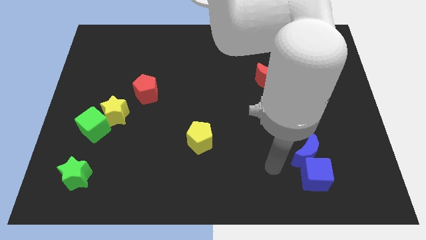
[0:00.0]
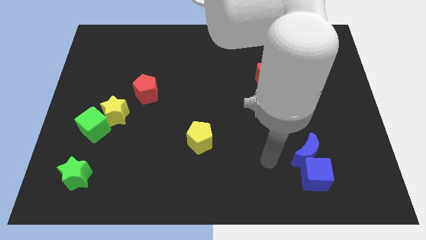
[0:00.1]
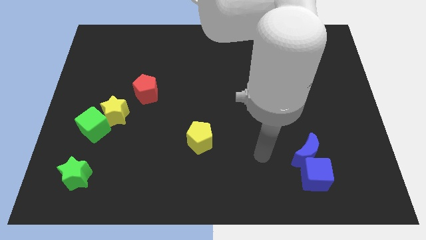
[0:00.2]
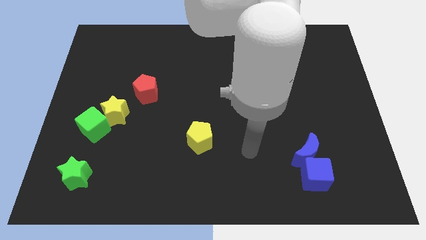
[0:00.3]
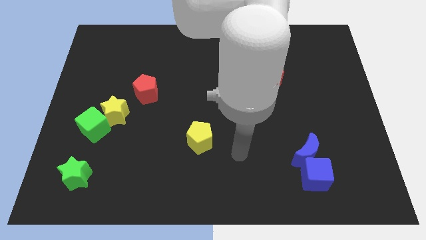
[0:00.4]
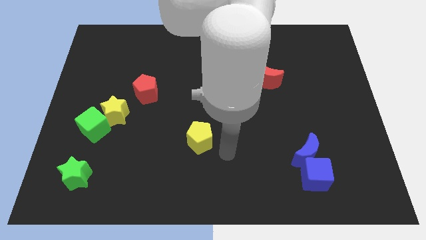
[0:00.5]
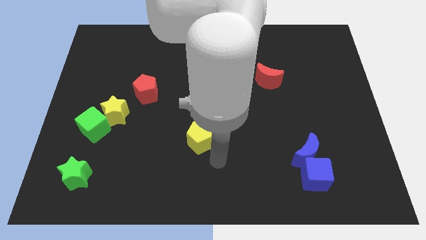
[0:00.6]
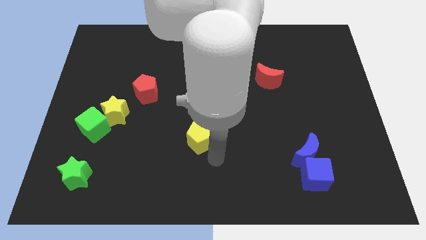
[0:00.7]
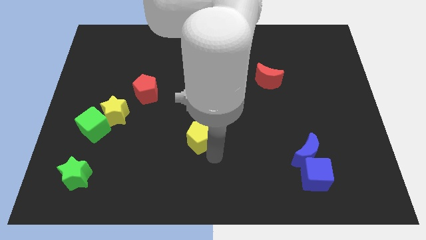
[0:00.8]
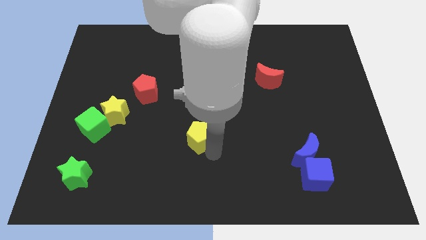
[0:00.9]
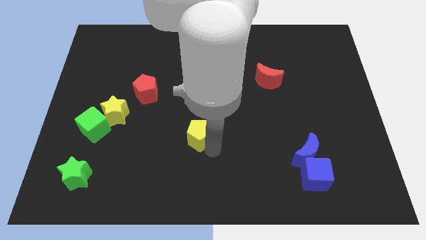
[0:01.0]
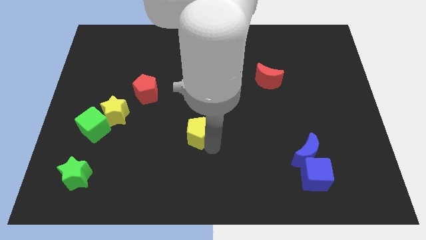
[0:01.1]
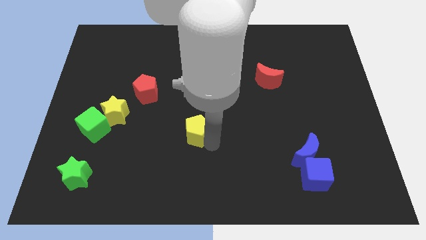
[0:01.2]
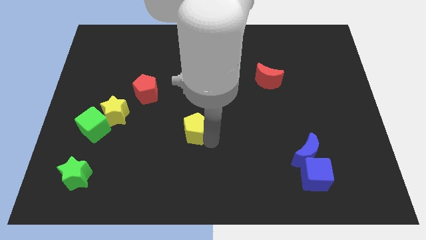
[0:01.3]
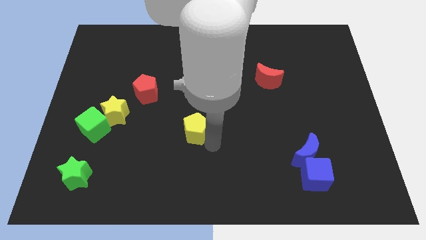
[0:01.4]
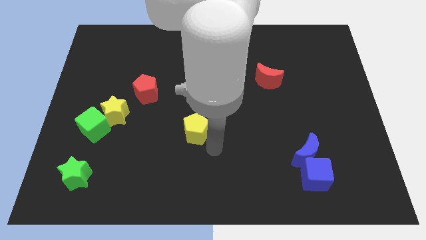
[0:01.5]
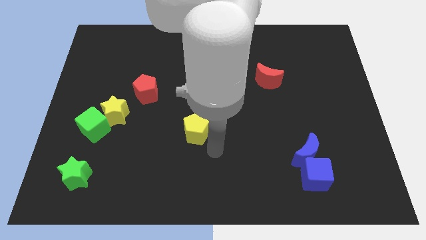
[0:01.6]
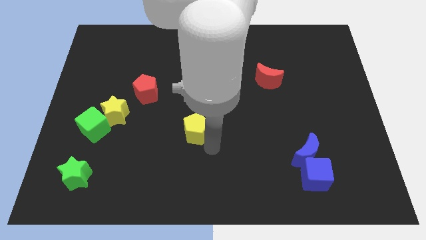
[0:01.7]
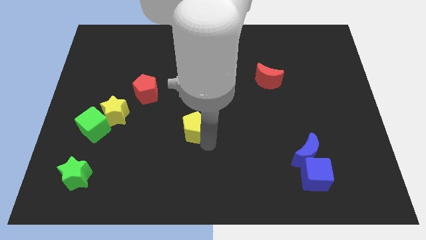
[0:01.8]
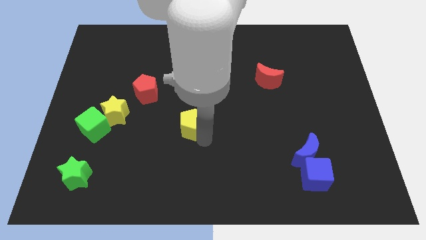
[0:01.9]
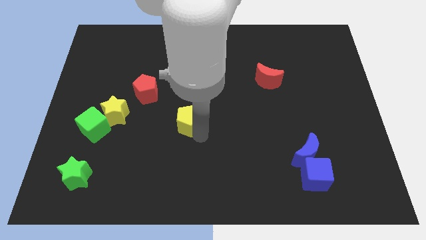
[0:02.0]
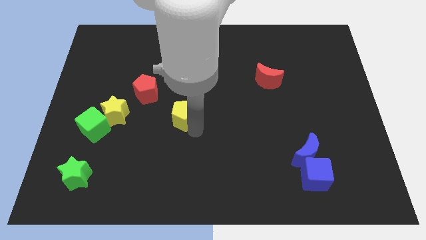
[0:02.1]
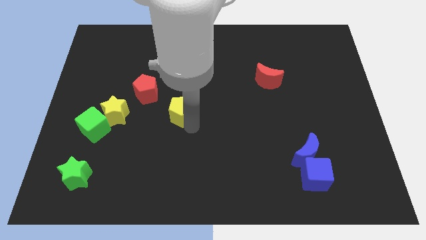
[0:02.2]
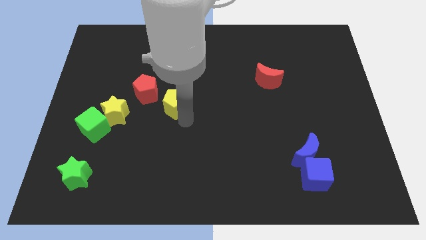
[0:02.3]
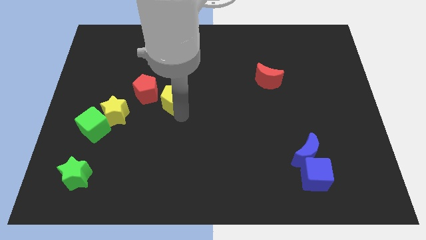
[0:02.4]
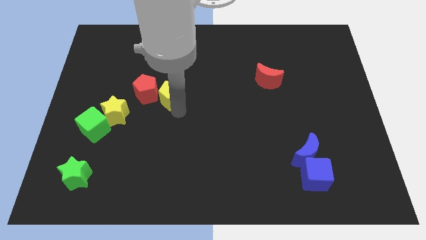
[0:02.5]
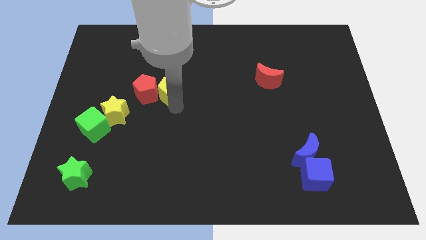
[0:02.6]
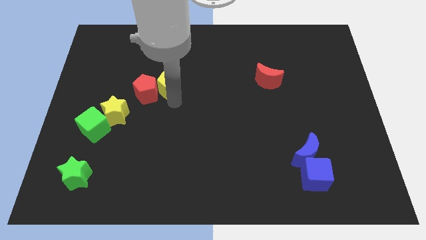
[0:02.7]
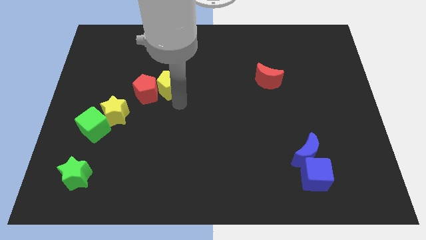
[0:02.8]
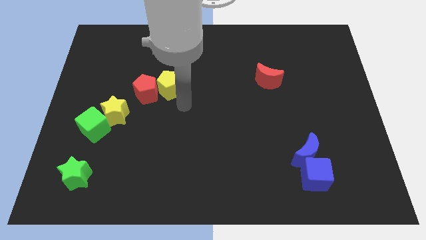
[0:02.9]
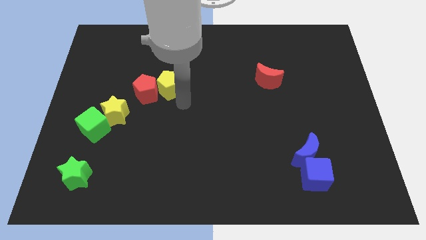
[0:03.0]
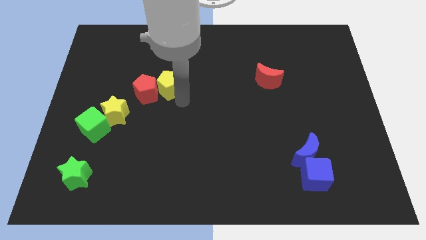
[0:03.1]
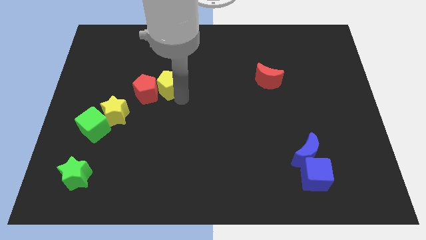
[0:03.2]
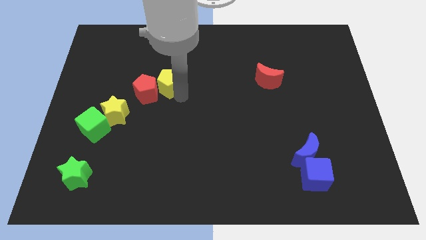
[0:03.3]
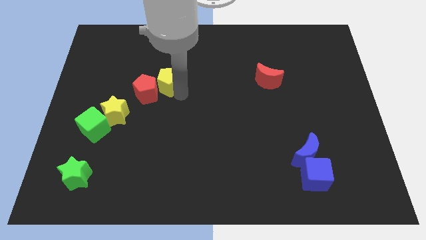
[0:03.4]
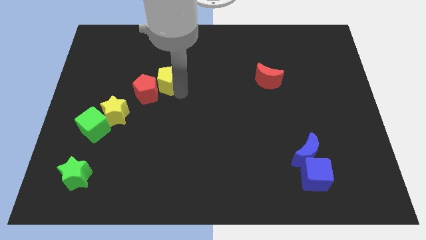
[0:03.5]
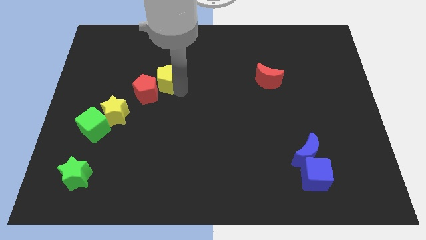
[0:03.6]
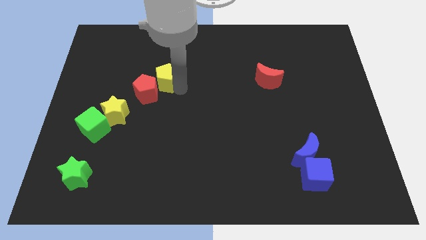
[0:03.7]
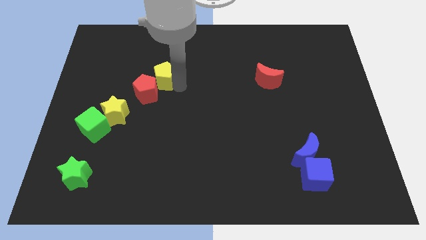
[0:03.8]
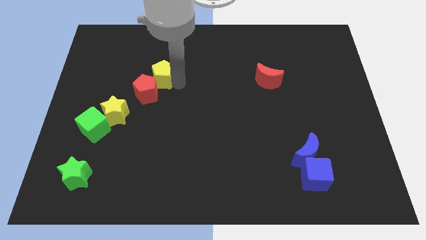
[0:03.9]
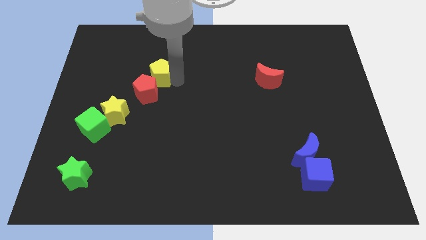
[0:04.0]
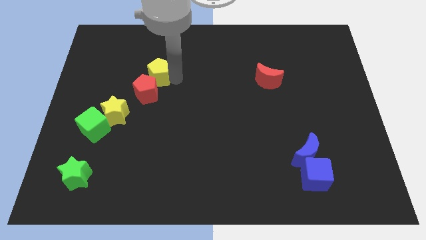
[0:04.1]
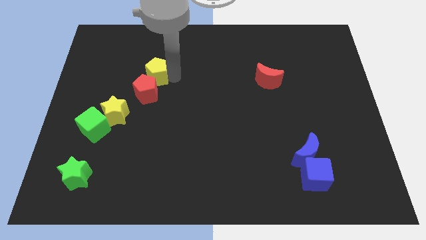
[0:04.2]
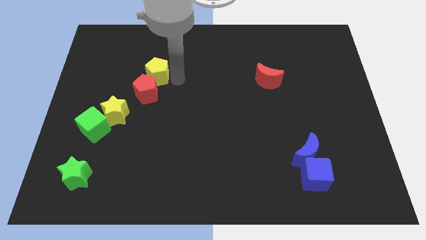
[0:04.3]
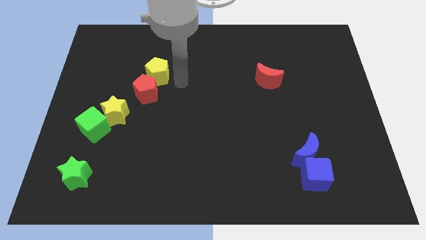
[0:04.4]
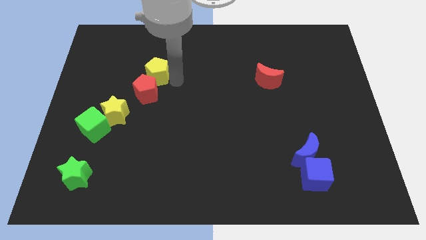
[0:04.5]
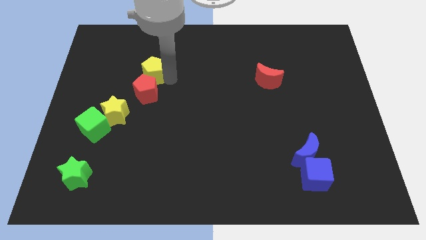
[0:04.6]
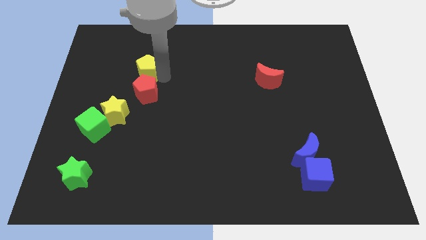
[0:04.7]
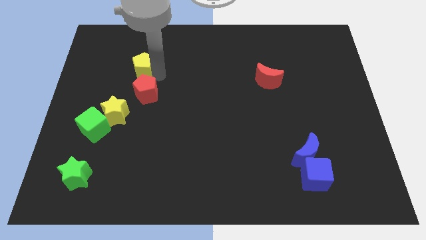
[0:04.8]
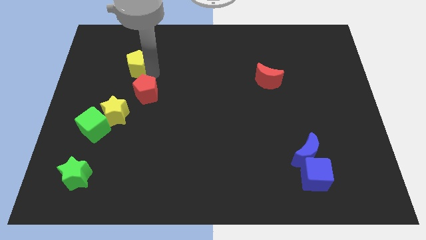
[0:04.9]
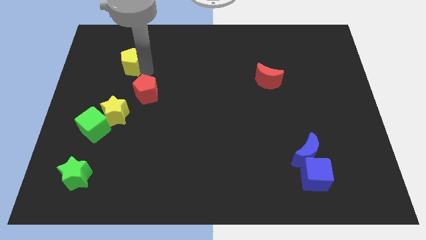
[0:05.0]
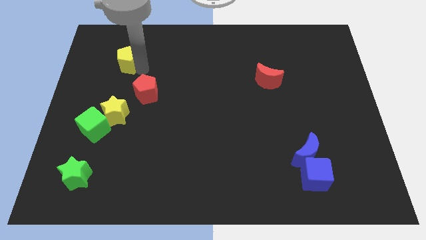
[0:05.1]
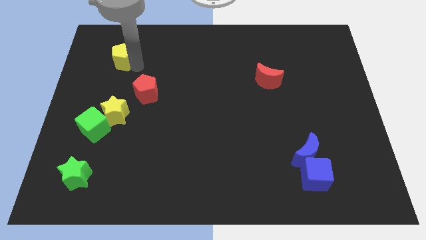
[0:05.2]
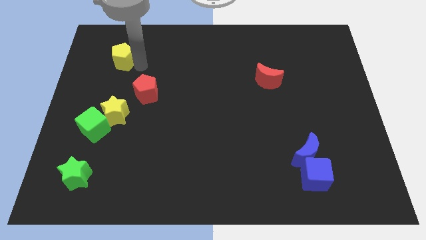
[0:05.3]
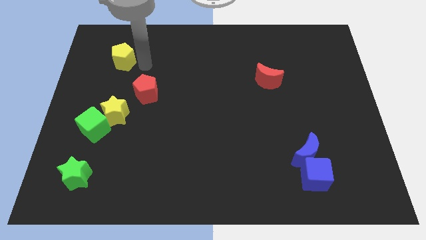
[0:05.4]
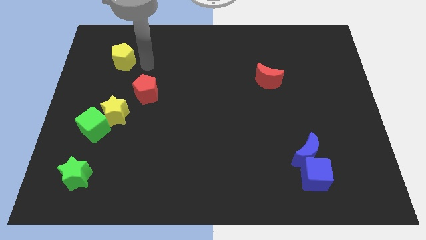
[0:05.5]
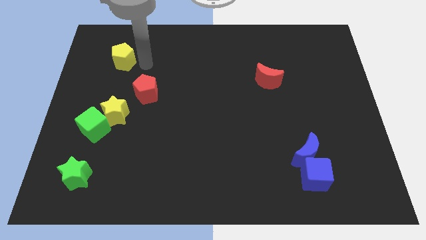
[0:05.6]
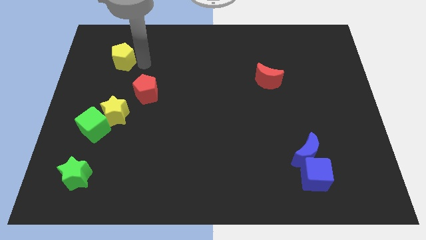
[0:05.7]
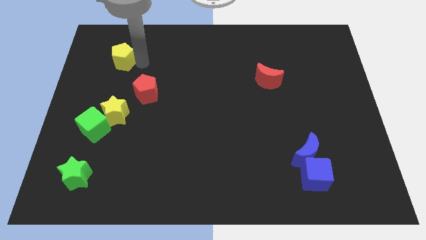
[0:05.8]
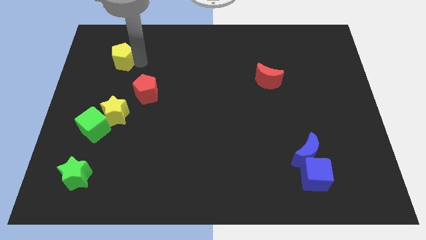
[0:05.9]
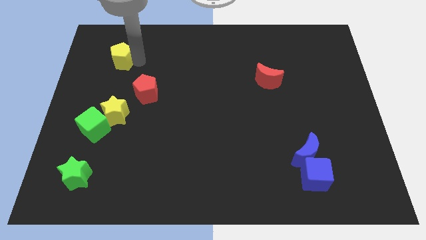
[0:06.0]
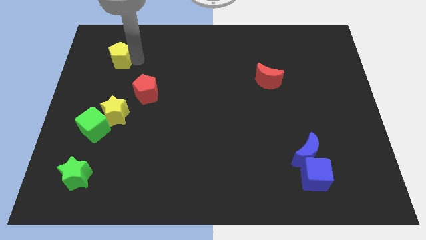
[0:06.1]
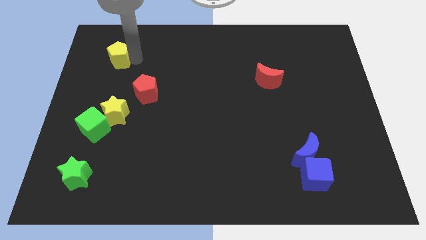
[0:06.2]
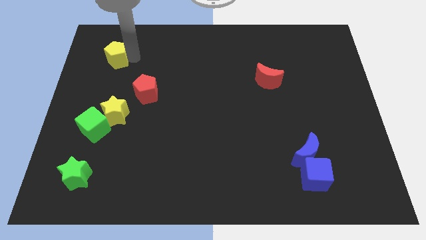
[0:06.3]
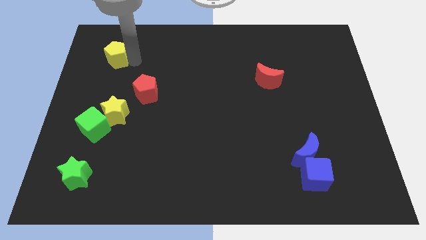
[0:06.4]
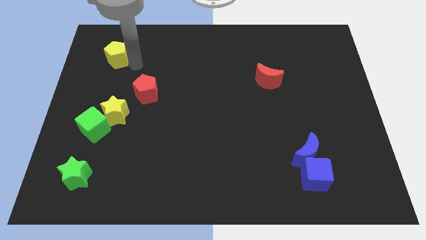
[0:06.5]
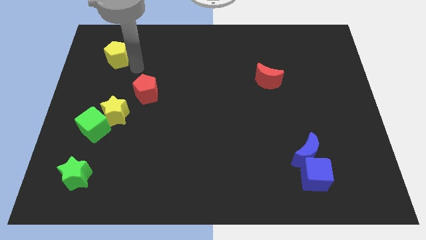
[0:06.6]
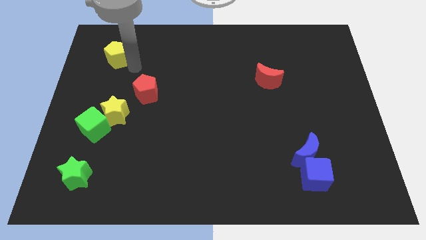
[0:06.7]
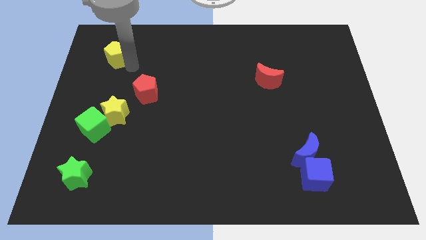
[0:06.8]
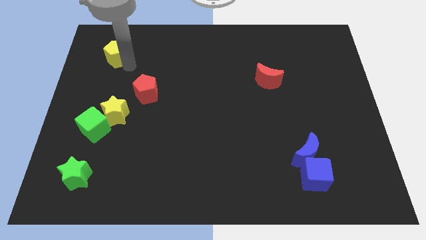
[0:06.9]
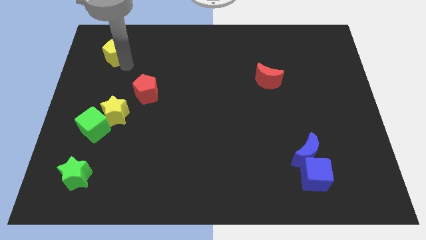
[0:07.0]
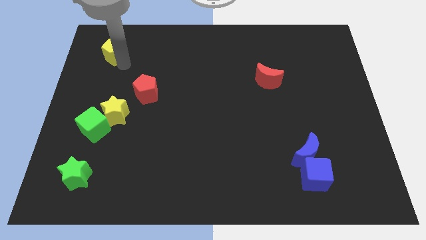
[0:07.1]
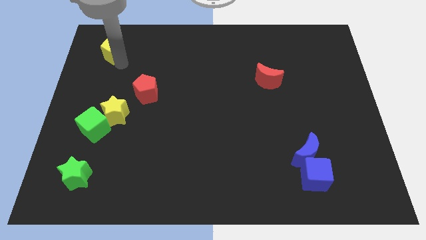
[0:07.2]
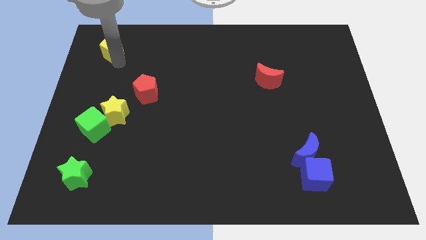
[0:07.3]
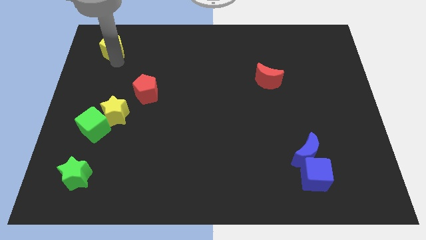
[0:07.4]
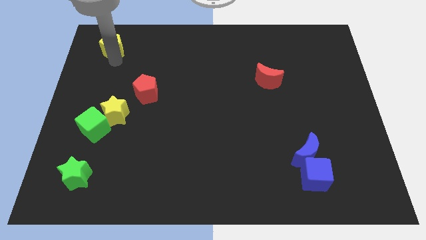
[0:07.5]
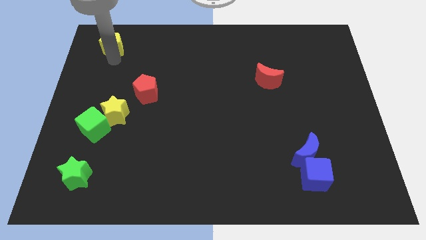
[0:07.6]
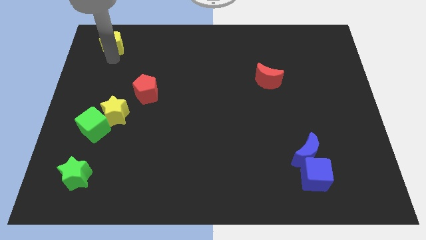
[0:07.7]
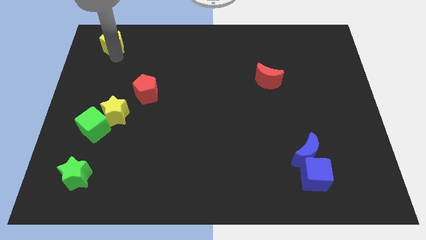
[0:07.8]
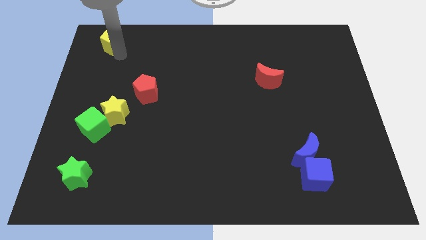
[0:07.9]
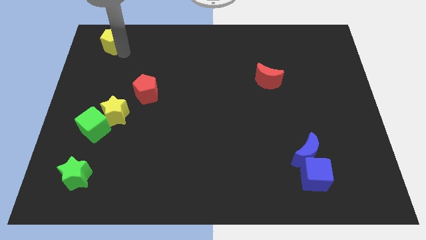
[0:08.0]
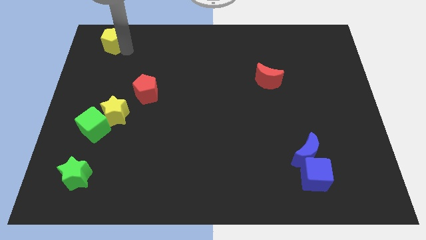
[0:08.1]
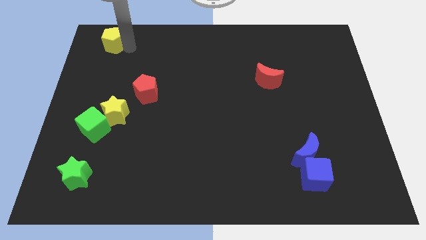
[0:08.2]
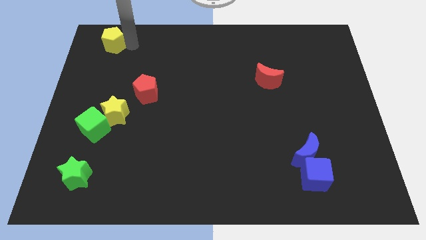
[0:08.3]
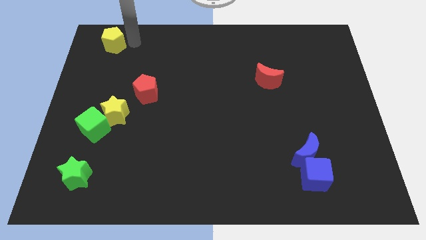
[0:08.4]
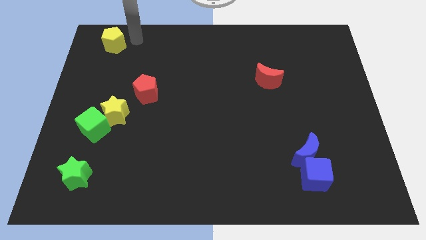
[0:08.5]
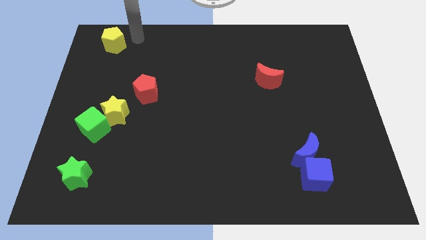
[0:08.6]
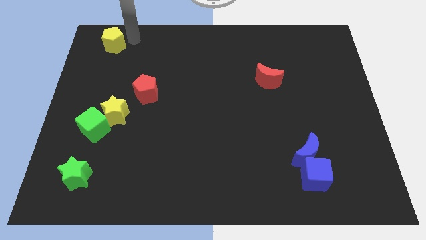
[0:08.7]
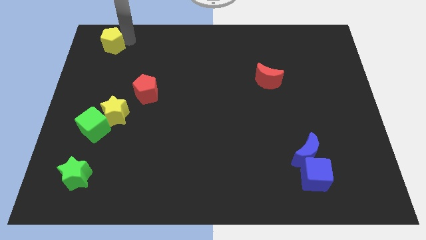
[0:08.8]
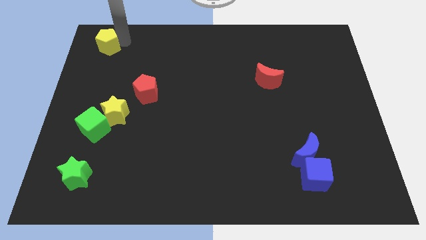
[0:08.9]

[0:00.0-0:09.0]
move the yellow pentagon to the upper left corner
